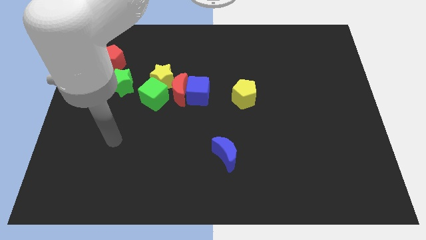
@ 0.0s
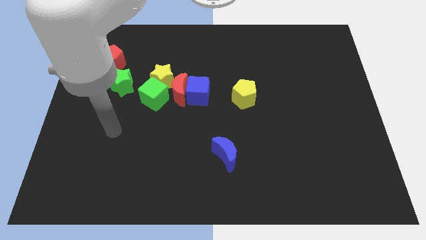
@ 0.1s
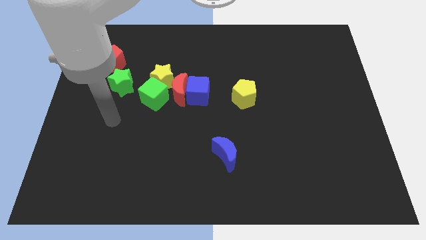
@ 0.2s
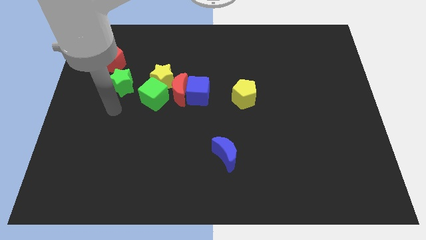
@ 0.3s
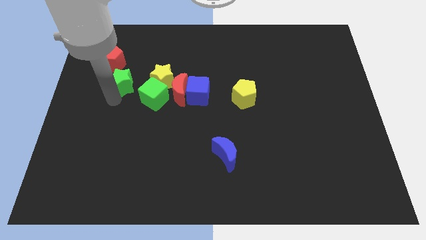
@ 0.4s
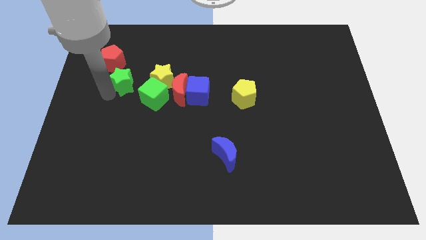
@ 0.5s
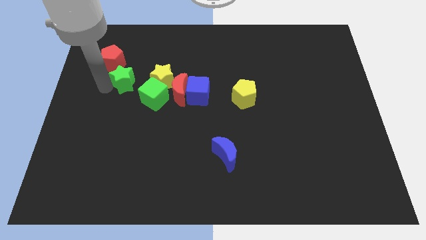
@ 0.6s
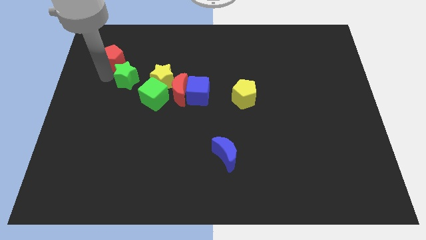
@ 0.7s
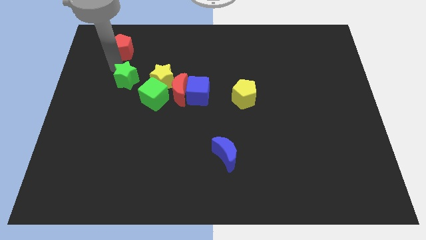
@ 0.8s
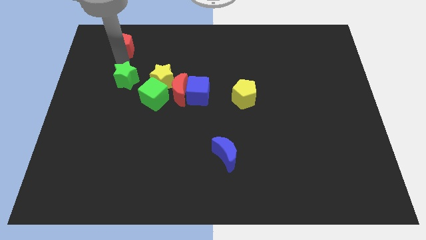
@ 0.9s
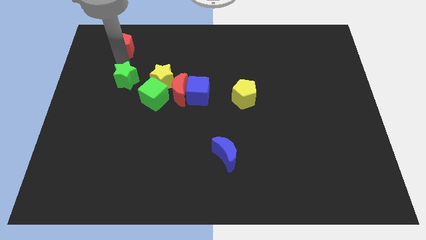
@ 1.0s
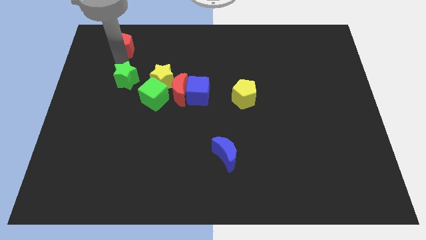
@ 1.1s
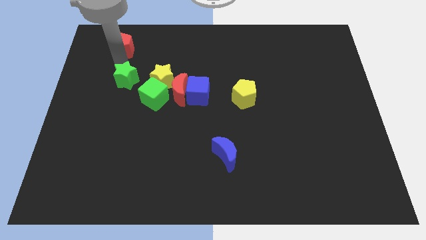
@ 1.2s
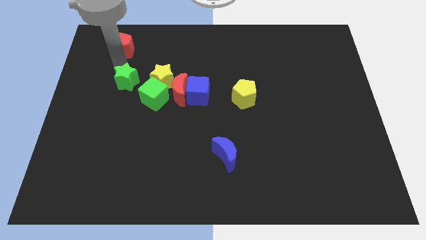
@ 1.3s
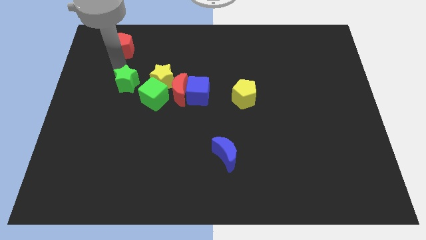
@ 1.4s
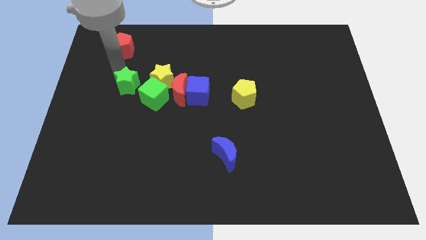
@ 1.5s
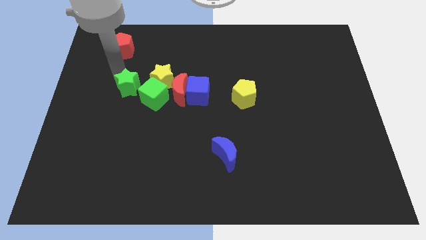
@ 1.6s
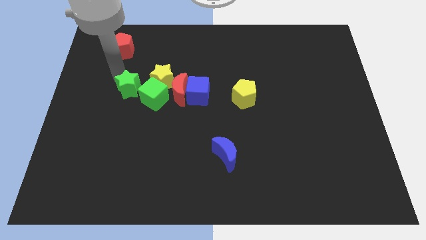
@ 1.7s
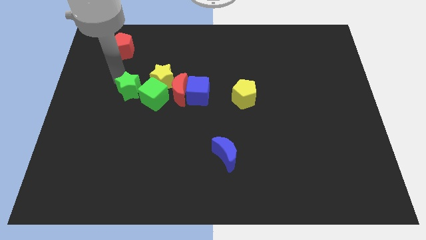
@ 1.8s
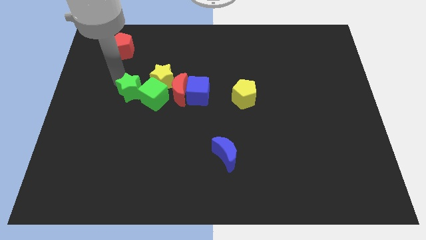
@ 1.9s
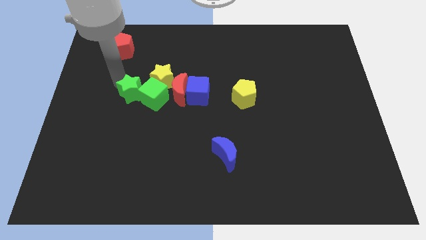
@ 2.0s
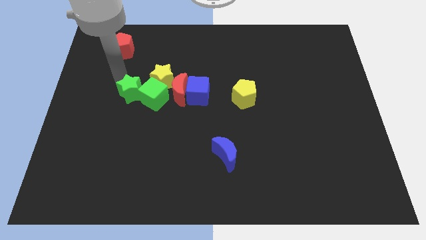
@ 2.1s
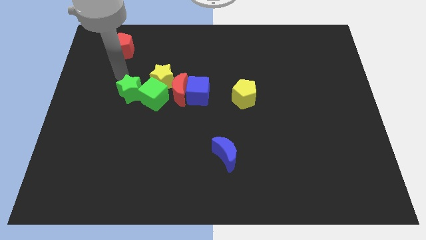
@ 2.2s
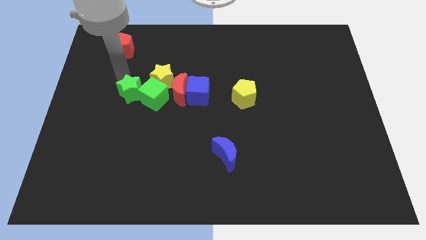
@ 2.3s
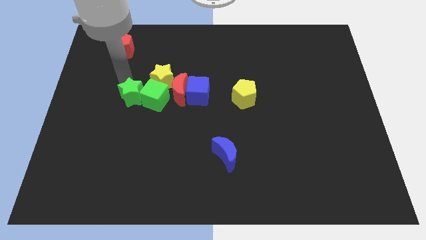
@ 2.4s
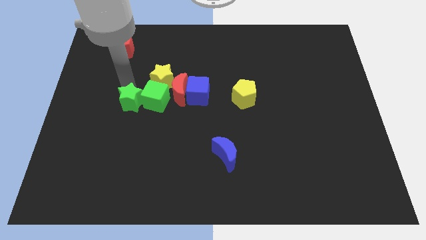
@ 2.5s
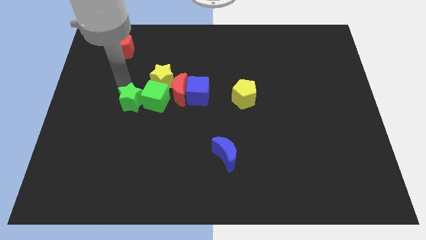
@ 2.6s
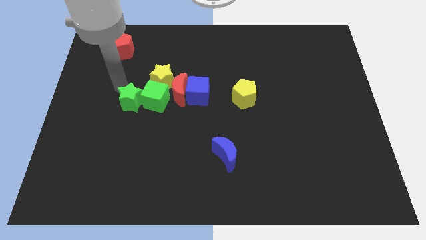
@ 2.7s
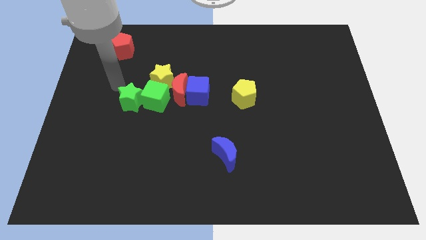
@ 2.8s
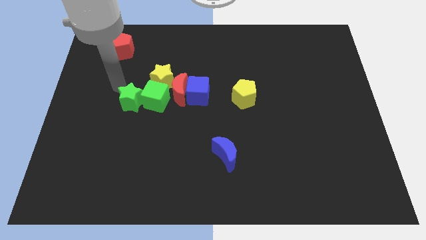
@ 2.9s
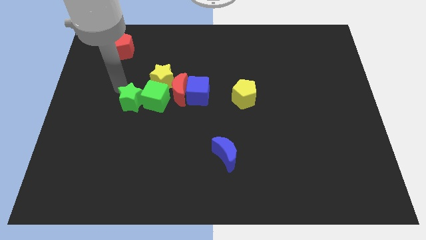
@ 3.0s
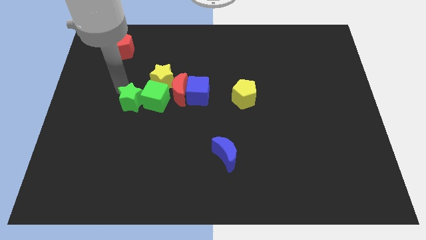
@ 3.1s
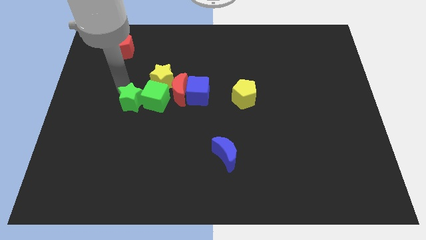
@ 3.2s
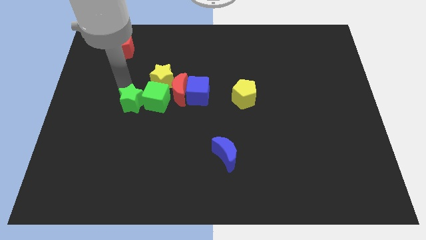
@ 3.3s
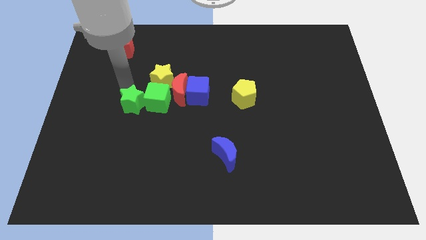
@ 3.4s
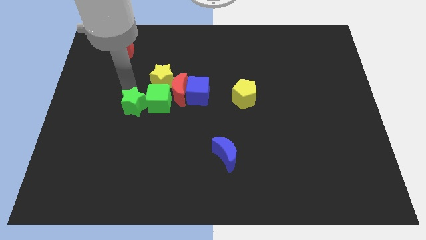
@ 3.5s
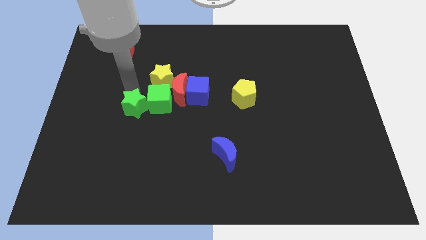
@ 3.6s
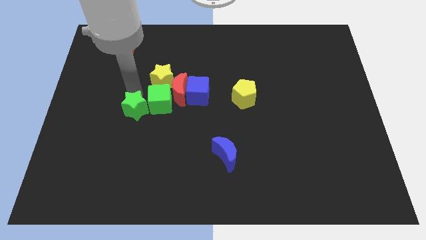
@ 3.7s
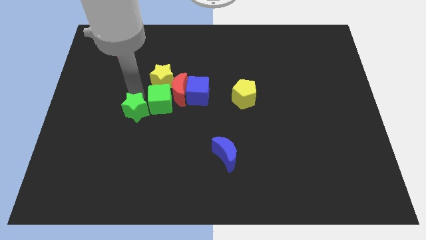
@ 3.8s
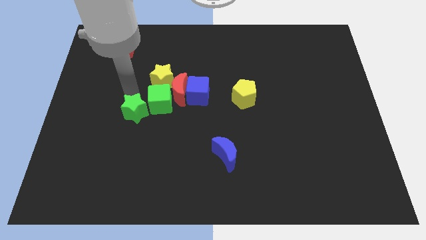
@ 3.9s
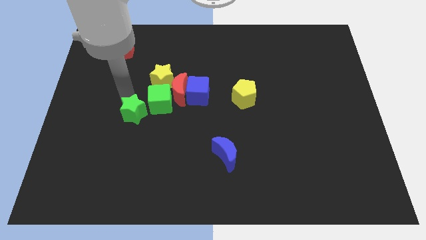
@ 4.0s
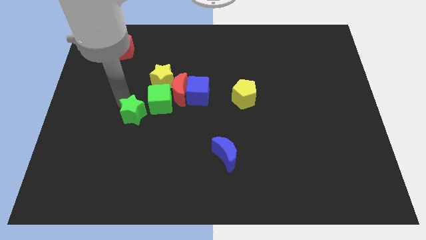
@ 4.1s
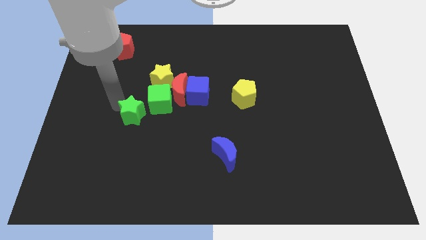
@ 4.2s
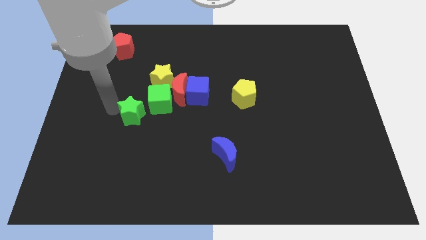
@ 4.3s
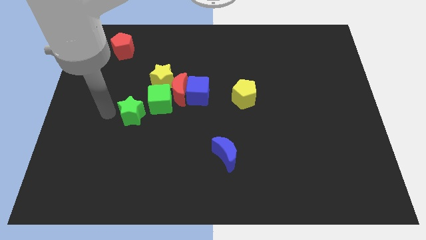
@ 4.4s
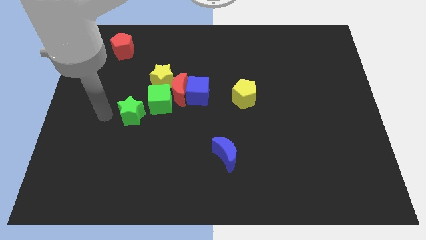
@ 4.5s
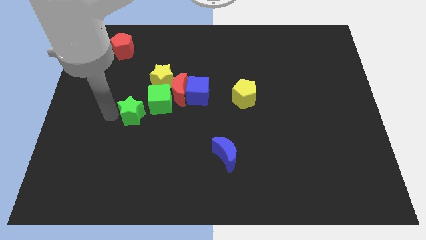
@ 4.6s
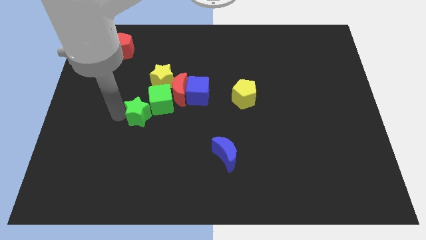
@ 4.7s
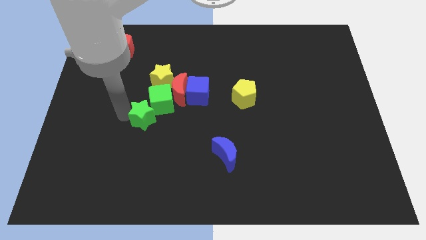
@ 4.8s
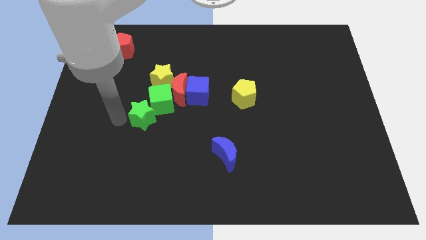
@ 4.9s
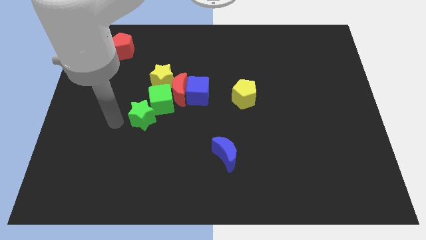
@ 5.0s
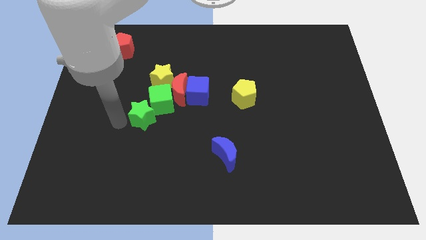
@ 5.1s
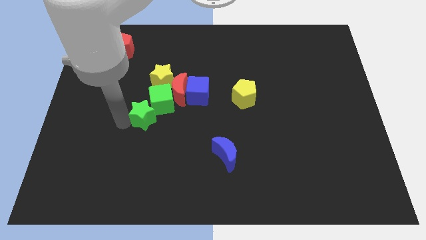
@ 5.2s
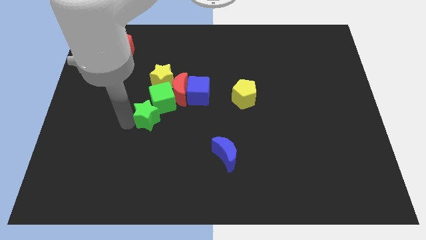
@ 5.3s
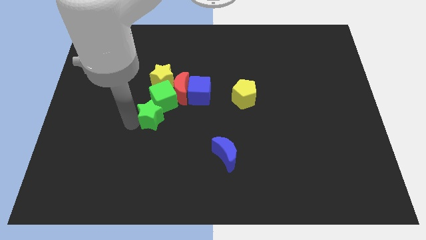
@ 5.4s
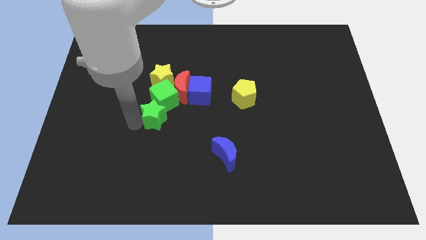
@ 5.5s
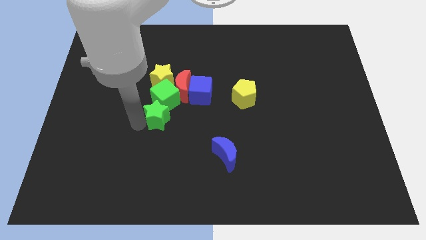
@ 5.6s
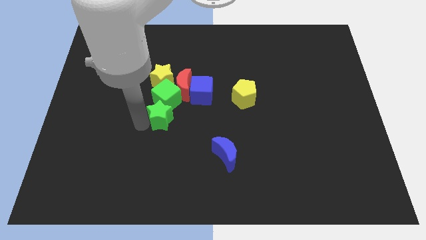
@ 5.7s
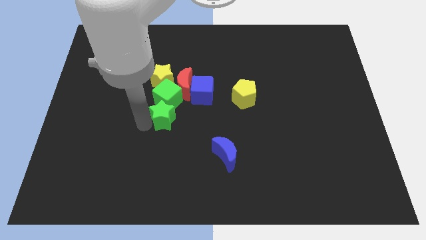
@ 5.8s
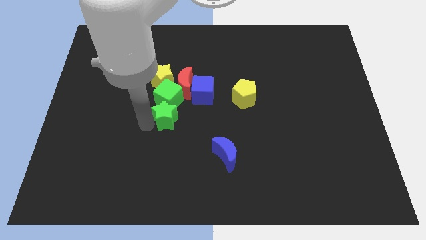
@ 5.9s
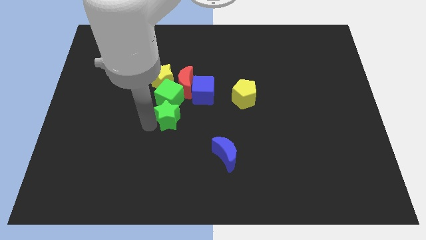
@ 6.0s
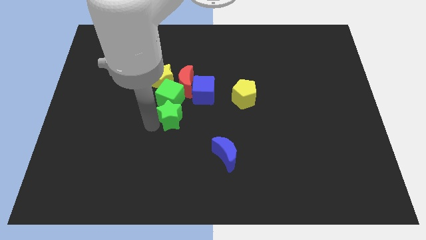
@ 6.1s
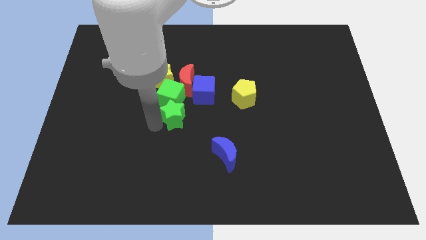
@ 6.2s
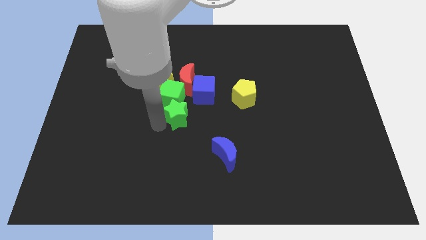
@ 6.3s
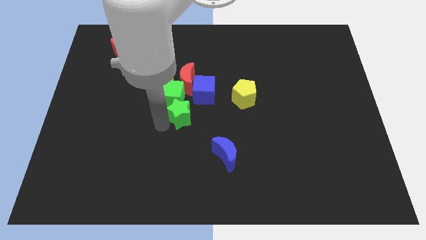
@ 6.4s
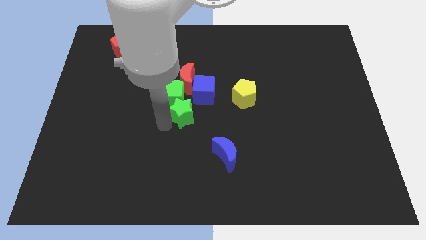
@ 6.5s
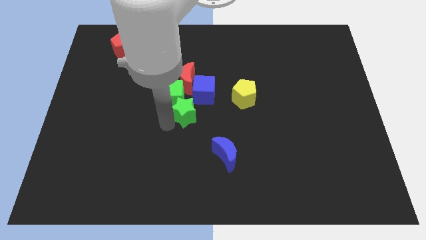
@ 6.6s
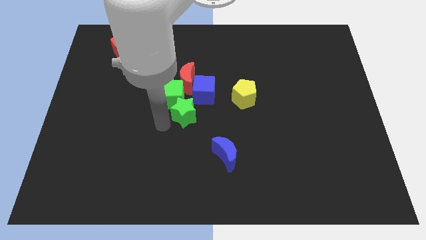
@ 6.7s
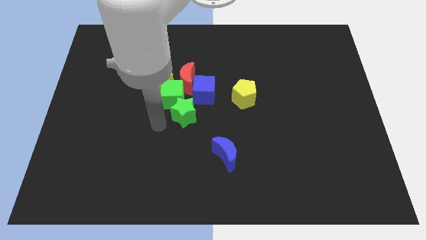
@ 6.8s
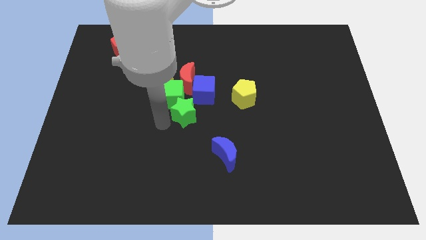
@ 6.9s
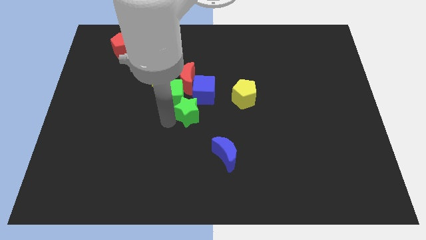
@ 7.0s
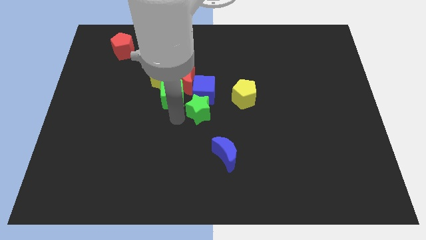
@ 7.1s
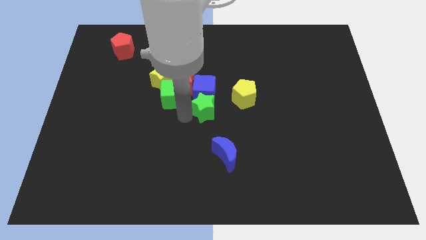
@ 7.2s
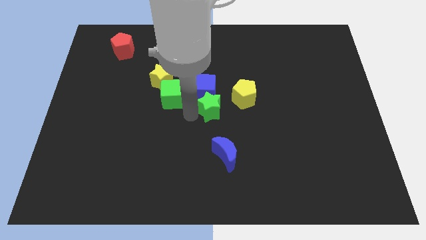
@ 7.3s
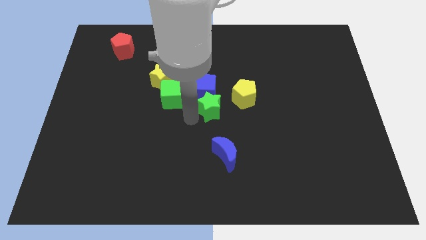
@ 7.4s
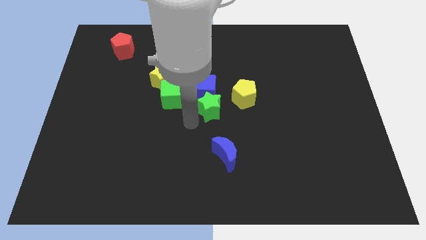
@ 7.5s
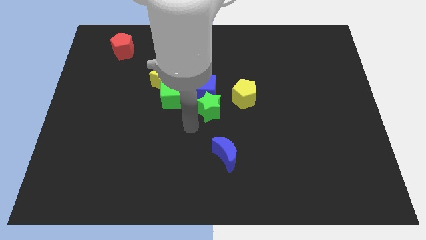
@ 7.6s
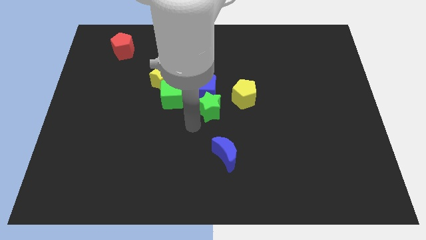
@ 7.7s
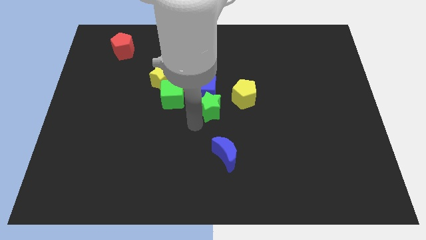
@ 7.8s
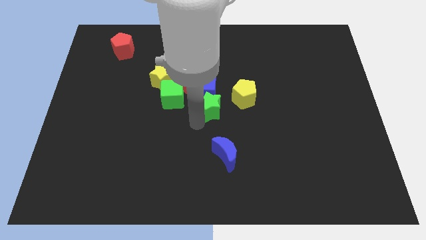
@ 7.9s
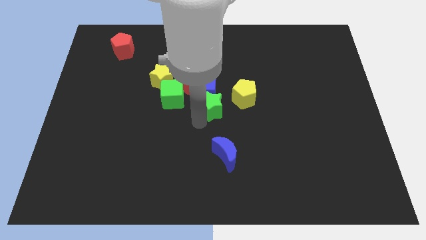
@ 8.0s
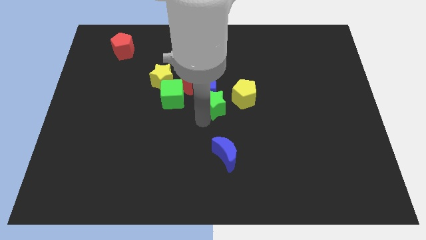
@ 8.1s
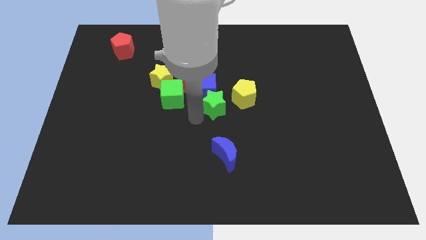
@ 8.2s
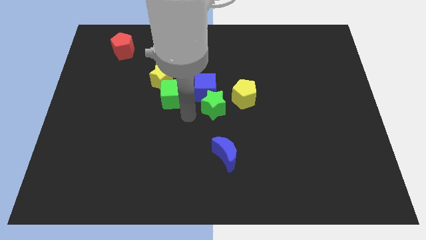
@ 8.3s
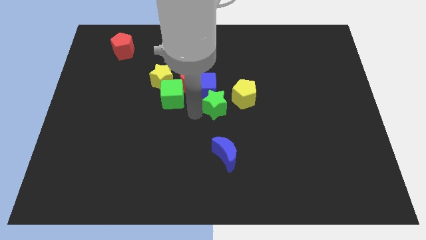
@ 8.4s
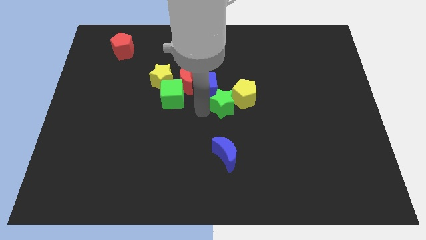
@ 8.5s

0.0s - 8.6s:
move the green star close to the yellow pentagon
